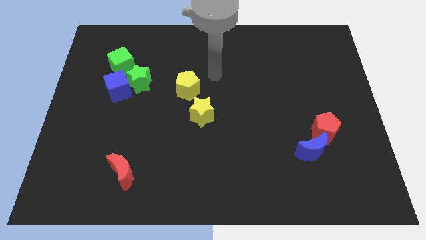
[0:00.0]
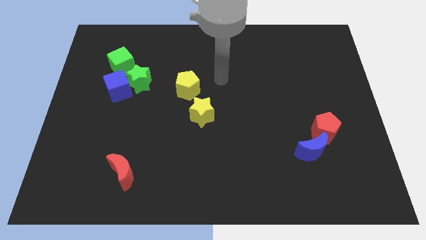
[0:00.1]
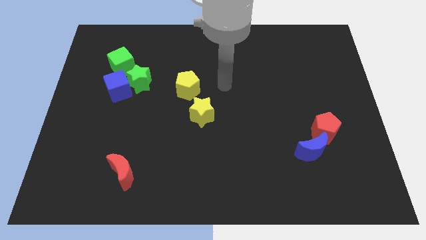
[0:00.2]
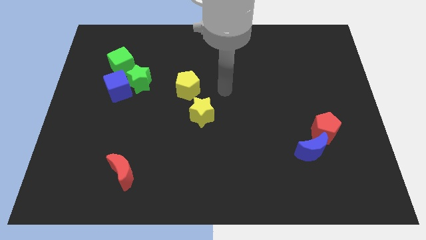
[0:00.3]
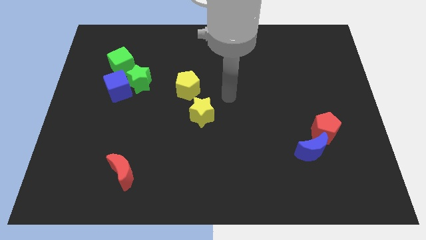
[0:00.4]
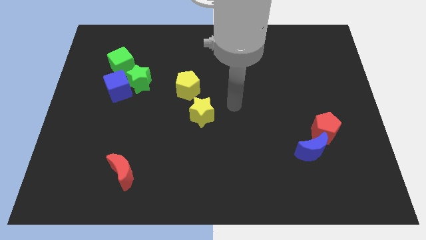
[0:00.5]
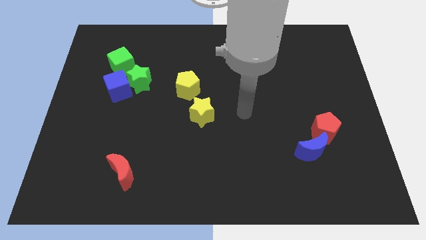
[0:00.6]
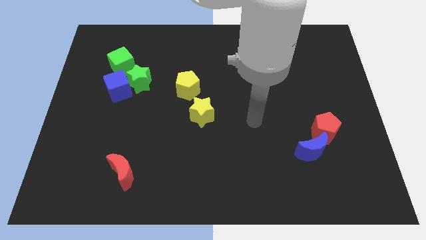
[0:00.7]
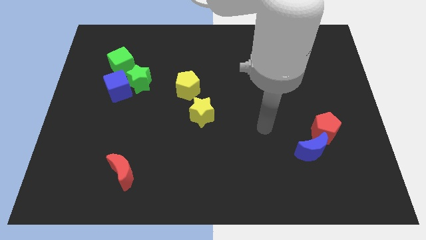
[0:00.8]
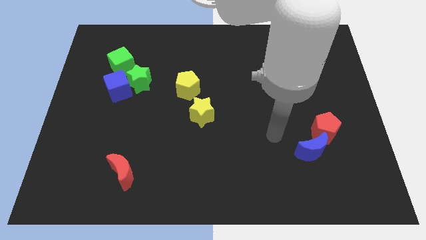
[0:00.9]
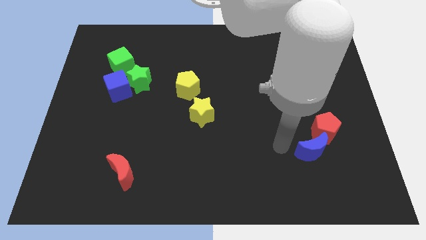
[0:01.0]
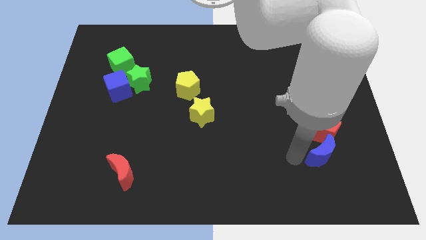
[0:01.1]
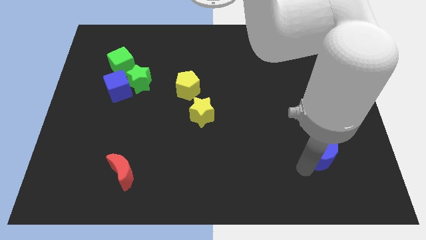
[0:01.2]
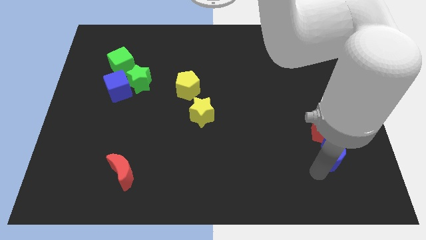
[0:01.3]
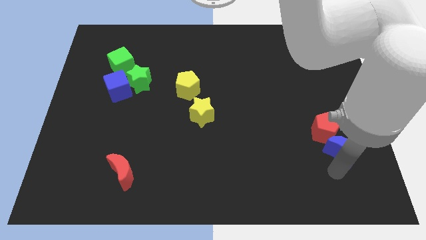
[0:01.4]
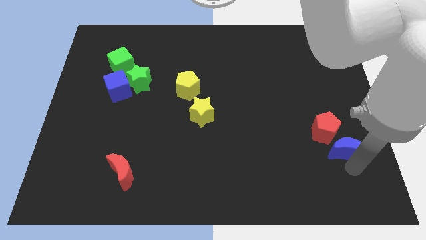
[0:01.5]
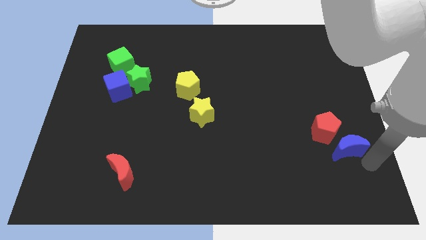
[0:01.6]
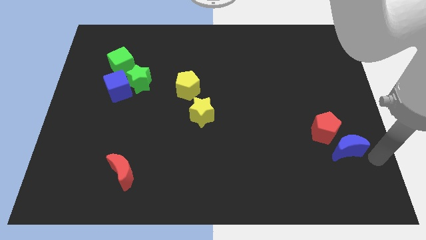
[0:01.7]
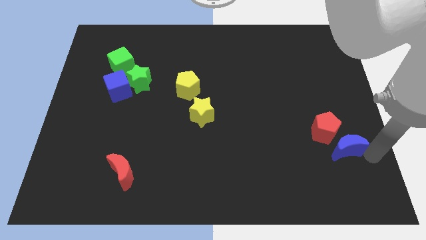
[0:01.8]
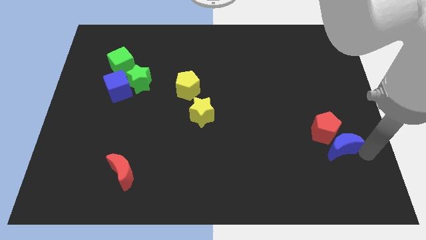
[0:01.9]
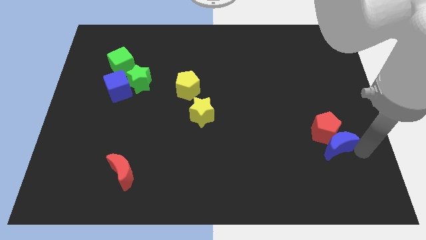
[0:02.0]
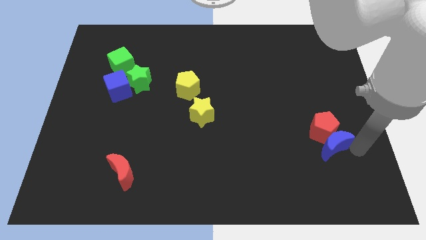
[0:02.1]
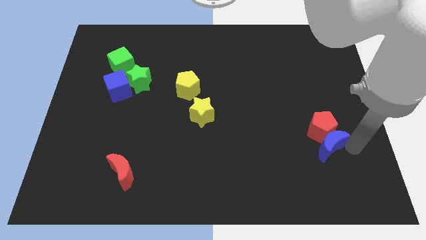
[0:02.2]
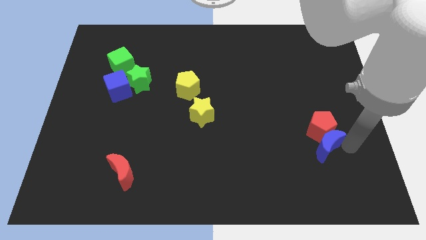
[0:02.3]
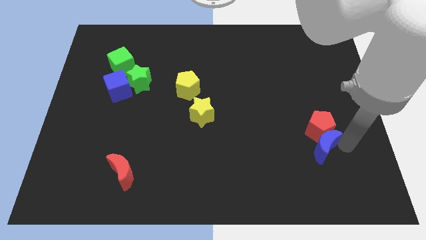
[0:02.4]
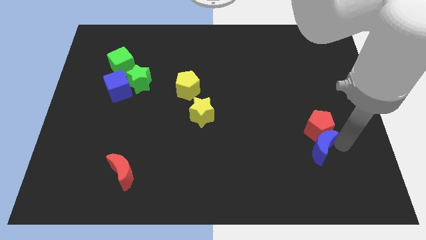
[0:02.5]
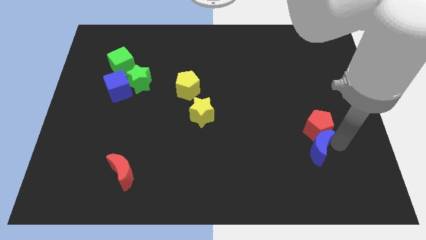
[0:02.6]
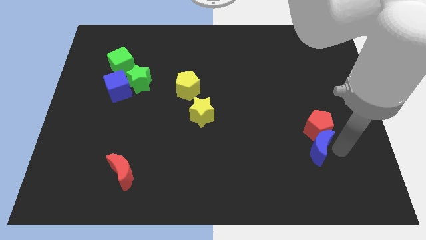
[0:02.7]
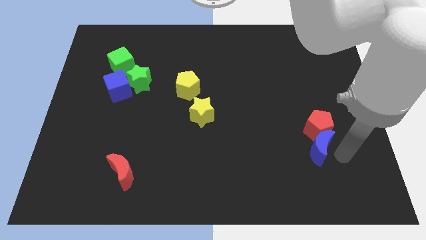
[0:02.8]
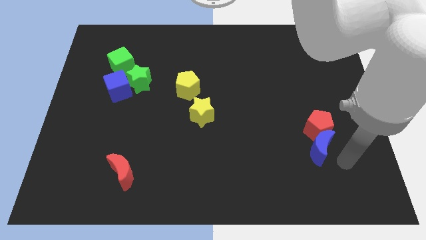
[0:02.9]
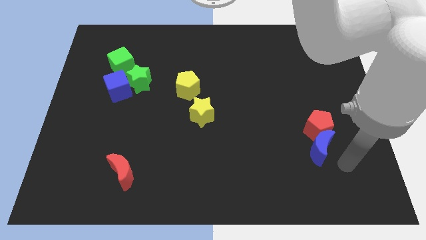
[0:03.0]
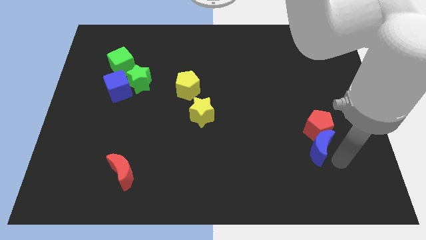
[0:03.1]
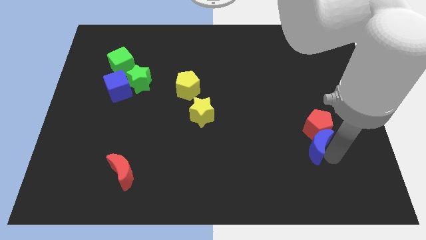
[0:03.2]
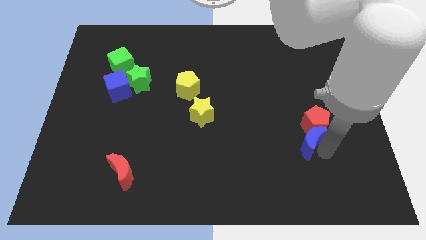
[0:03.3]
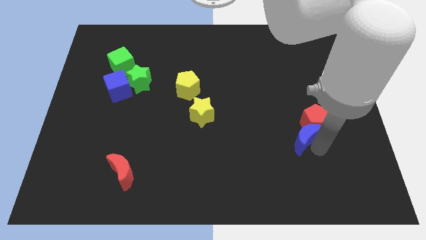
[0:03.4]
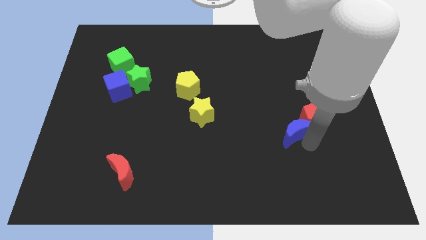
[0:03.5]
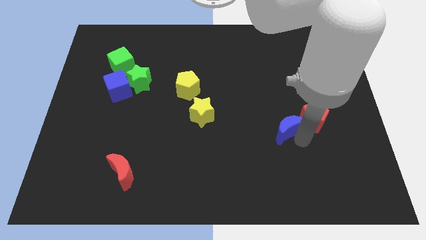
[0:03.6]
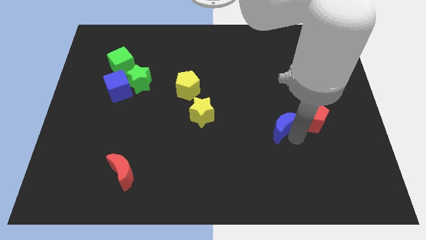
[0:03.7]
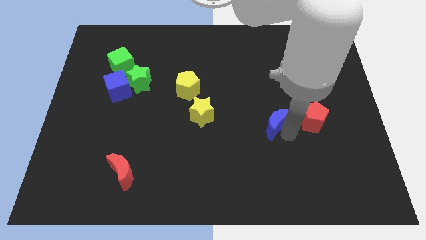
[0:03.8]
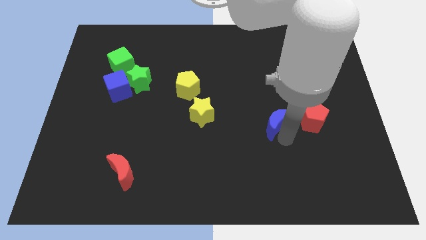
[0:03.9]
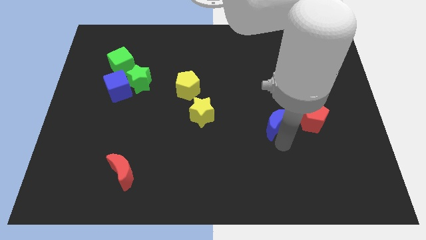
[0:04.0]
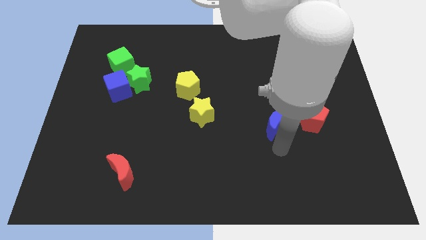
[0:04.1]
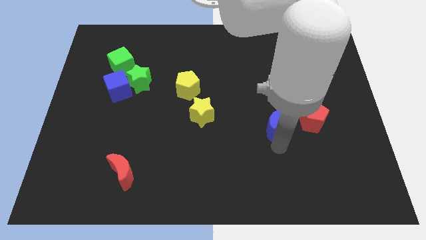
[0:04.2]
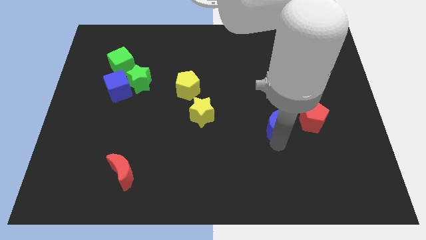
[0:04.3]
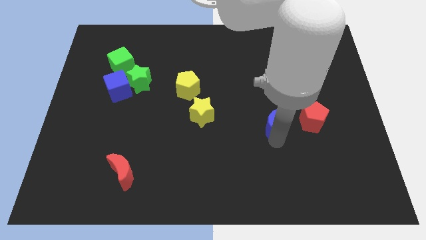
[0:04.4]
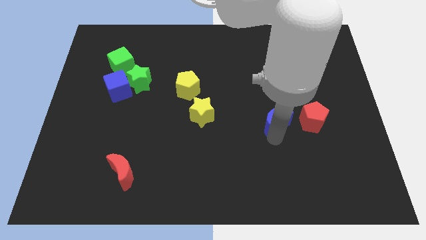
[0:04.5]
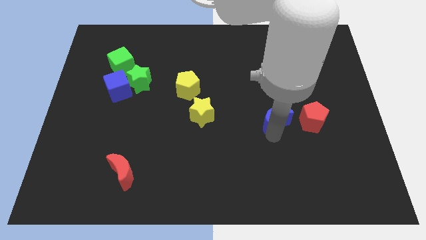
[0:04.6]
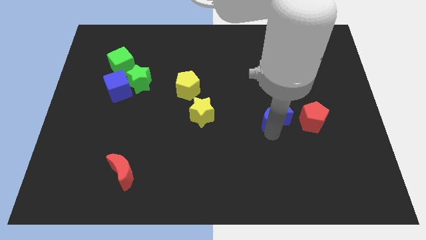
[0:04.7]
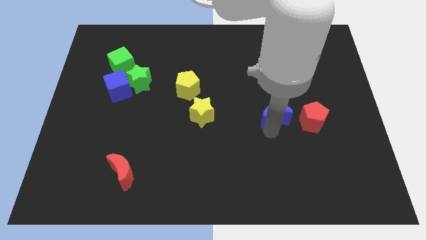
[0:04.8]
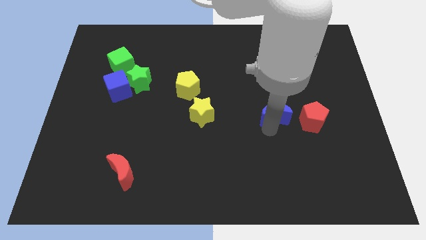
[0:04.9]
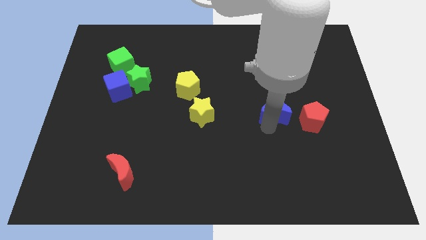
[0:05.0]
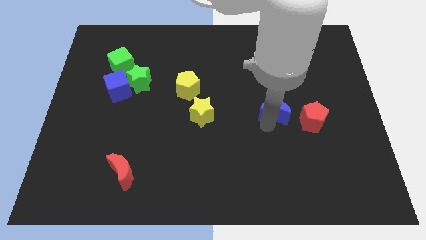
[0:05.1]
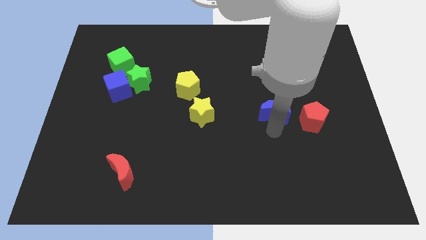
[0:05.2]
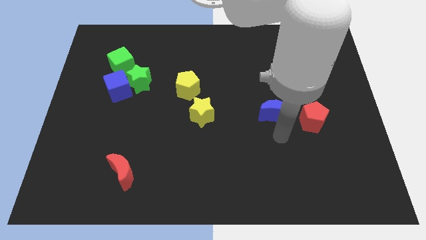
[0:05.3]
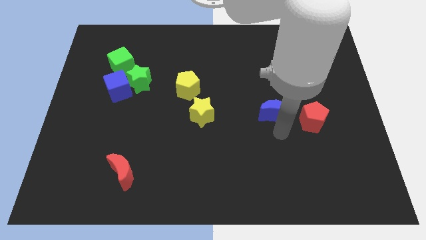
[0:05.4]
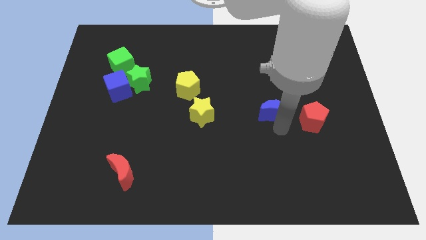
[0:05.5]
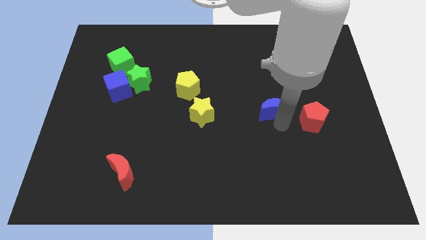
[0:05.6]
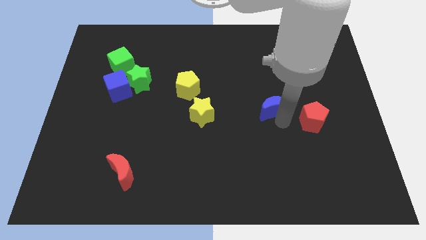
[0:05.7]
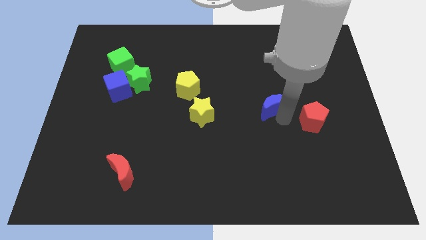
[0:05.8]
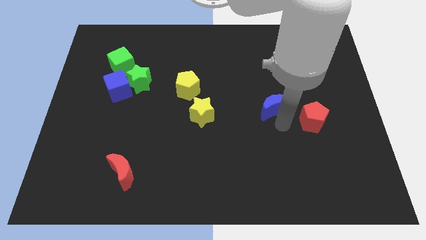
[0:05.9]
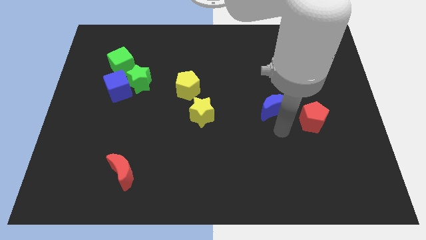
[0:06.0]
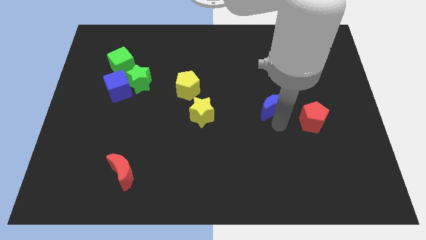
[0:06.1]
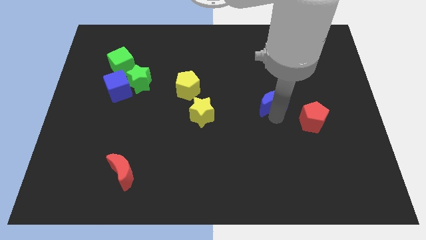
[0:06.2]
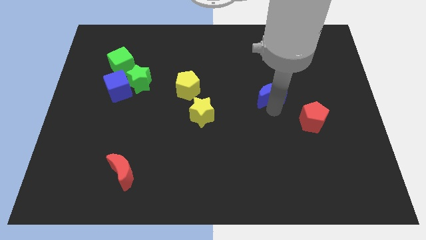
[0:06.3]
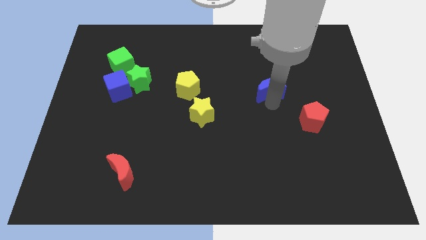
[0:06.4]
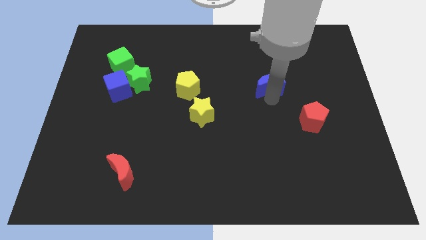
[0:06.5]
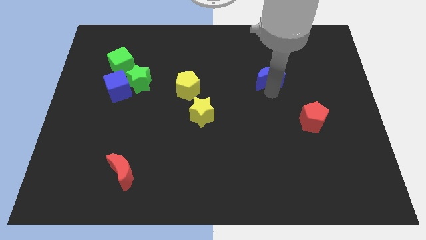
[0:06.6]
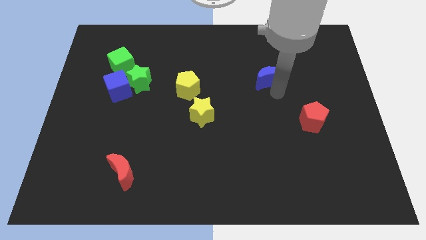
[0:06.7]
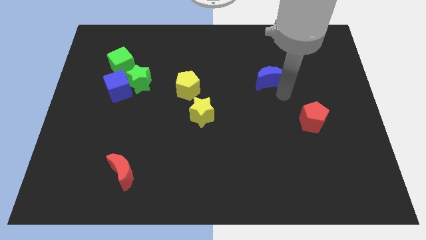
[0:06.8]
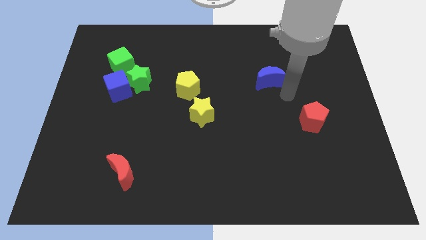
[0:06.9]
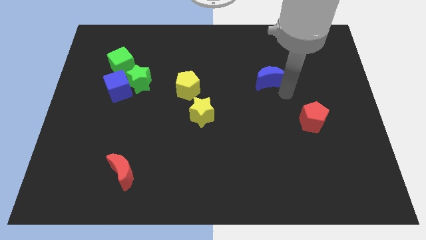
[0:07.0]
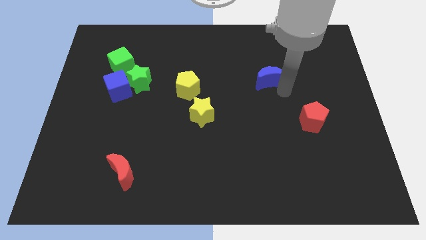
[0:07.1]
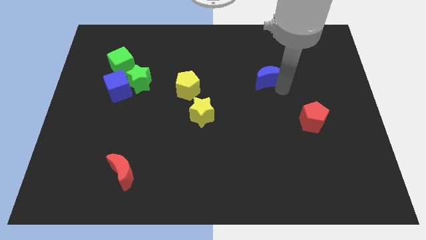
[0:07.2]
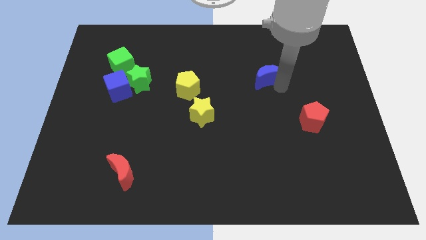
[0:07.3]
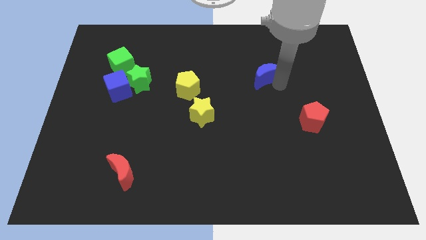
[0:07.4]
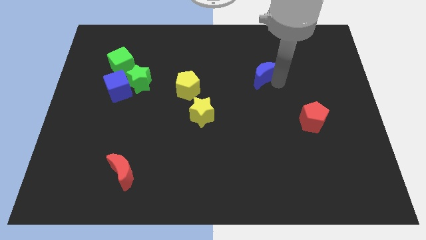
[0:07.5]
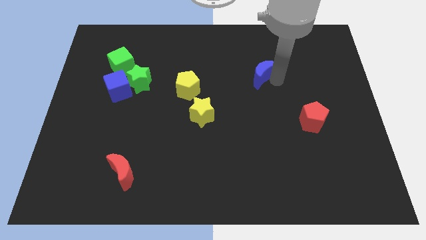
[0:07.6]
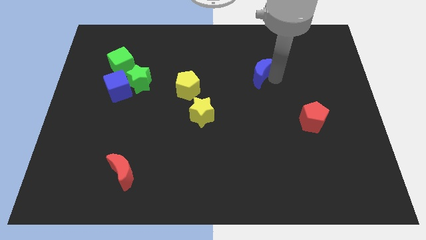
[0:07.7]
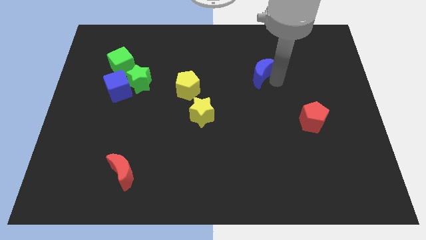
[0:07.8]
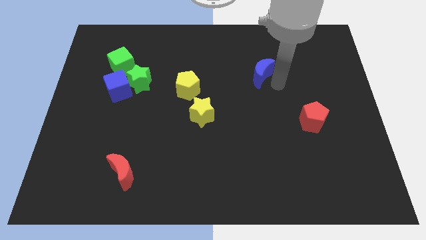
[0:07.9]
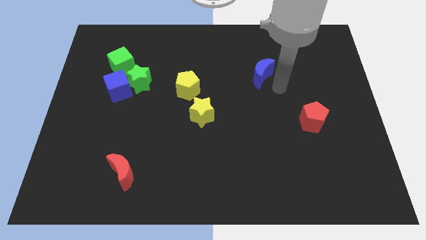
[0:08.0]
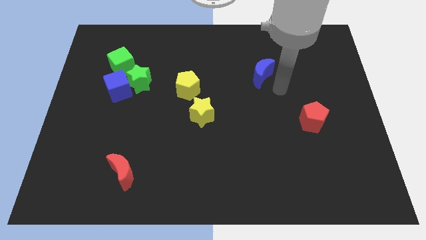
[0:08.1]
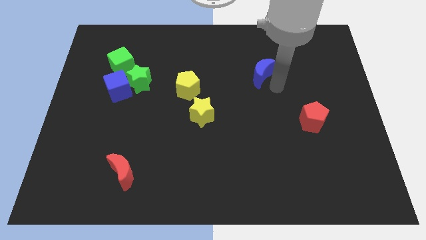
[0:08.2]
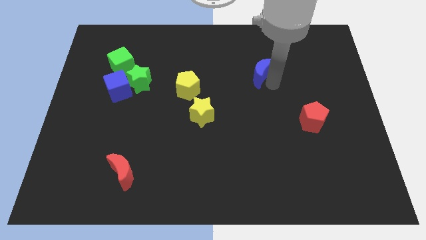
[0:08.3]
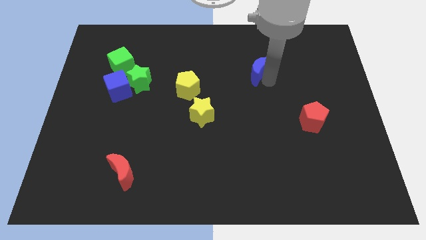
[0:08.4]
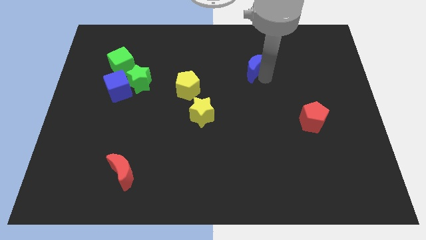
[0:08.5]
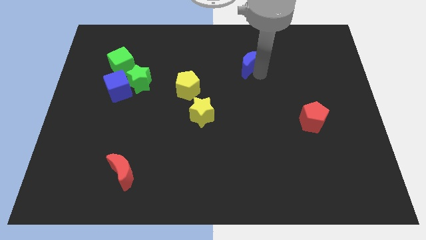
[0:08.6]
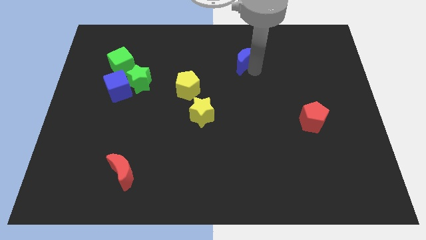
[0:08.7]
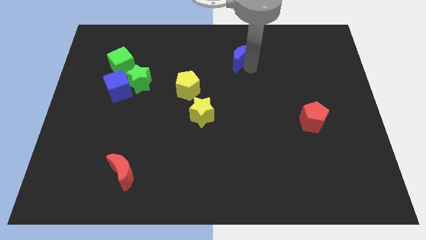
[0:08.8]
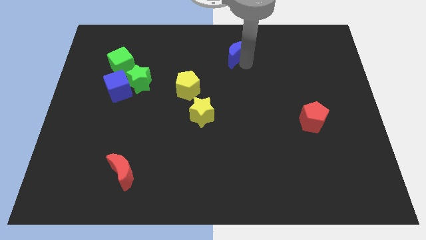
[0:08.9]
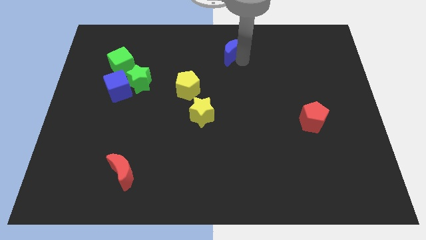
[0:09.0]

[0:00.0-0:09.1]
put the blue moon to the towards your base
